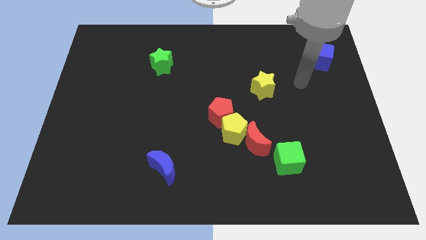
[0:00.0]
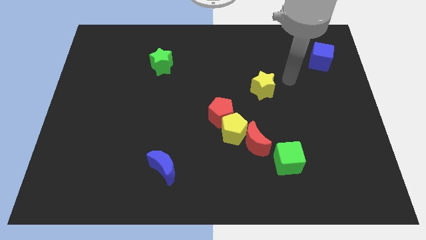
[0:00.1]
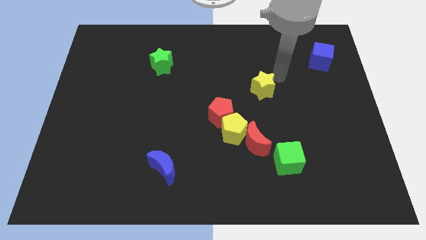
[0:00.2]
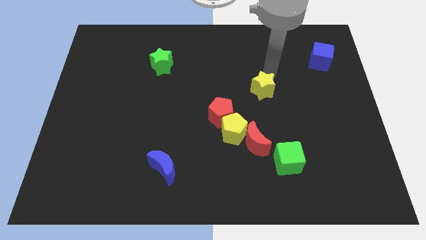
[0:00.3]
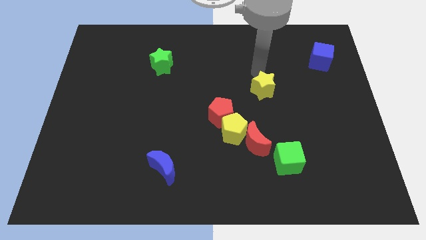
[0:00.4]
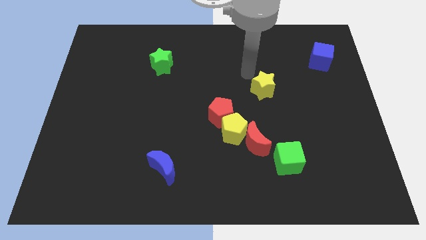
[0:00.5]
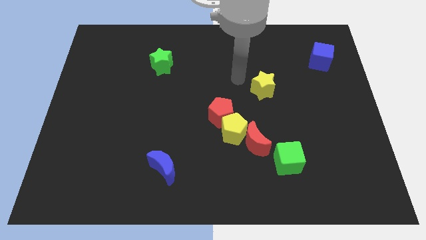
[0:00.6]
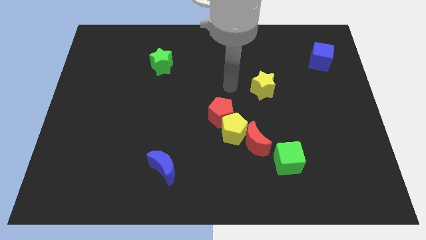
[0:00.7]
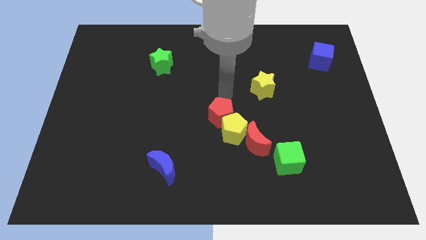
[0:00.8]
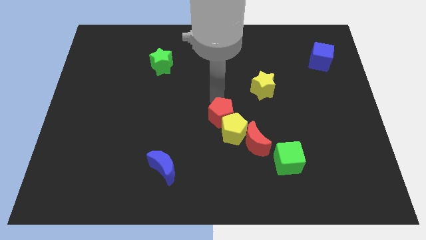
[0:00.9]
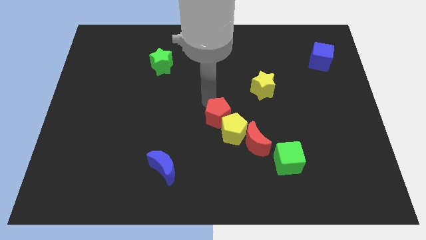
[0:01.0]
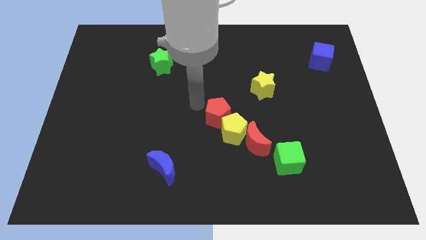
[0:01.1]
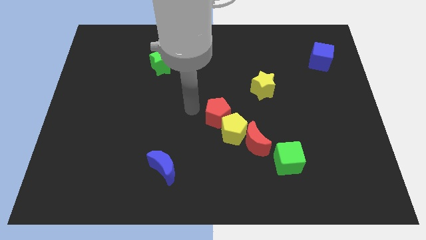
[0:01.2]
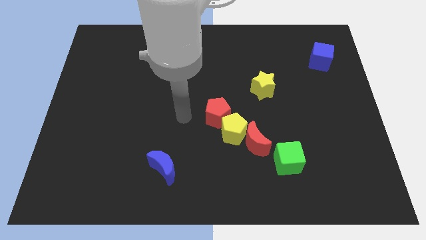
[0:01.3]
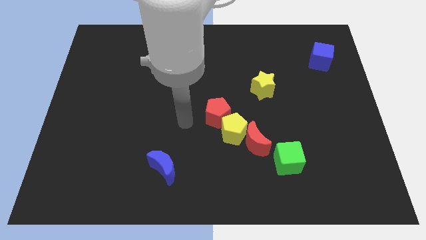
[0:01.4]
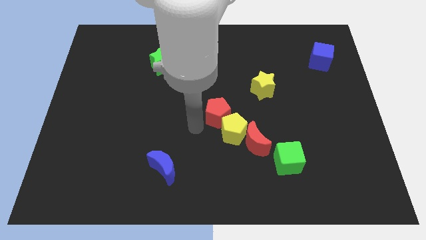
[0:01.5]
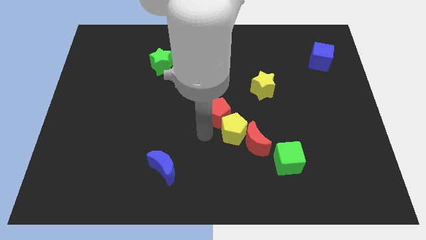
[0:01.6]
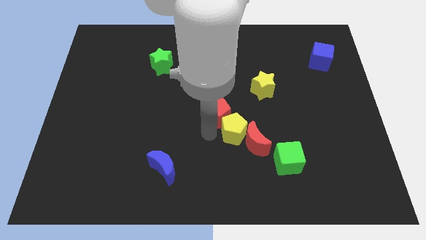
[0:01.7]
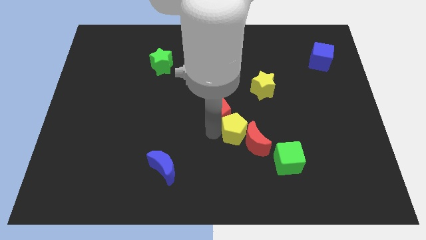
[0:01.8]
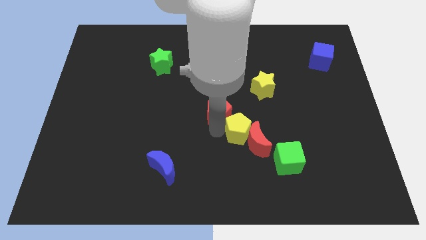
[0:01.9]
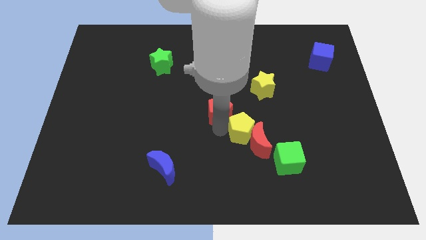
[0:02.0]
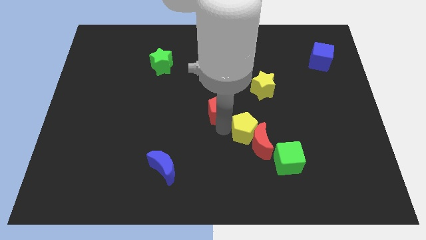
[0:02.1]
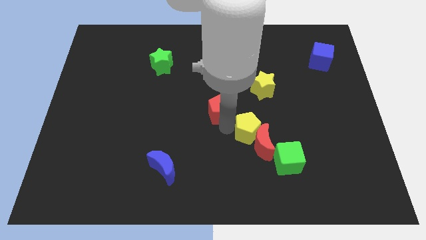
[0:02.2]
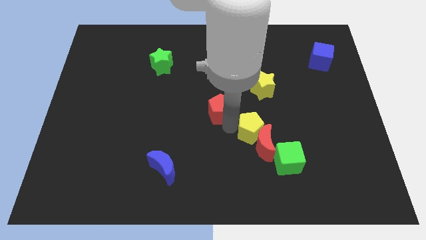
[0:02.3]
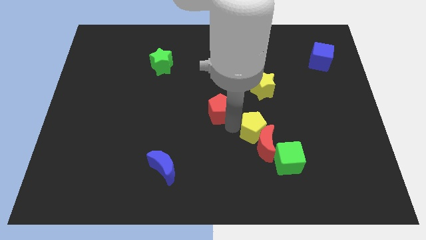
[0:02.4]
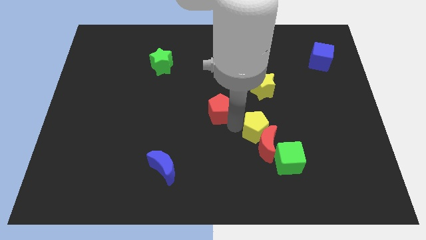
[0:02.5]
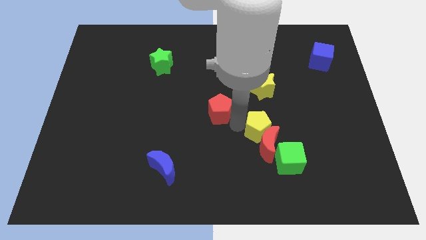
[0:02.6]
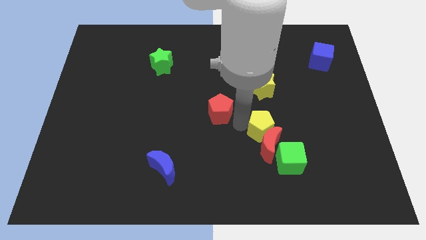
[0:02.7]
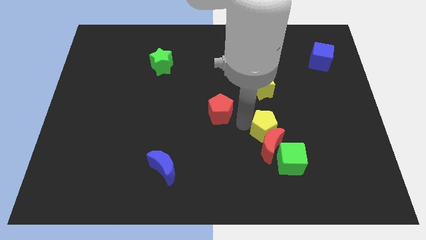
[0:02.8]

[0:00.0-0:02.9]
push the yellow pentagon to the right slightly

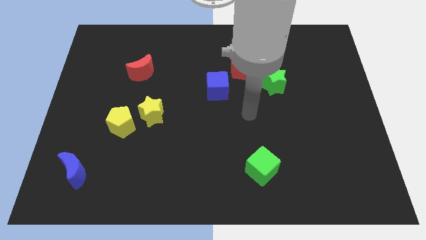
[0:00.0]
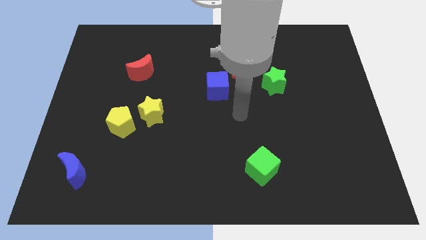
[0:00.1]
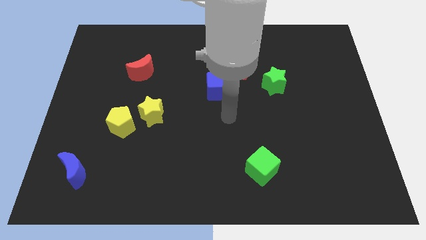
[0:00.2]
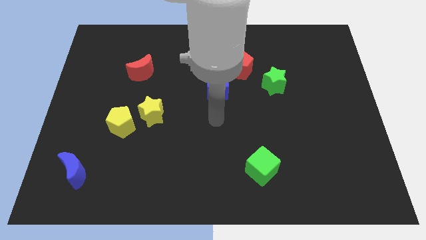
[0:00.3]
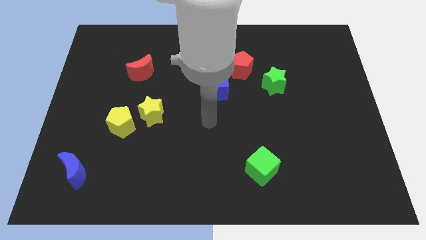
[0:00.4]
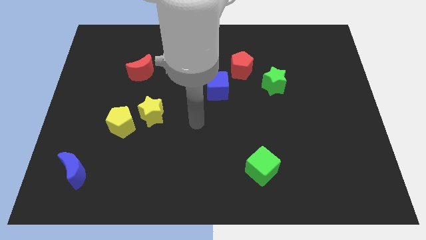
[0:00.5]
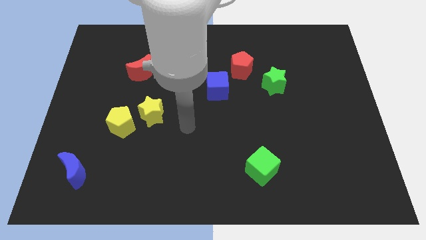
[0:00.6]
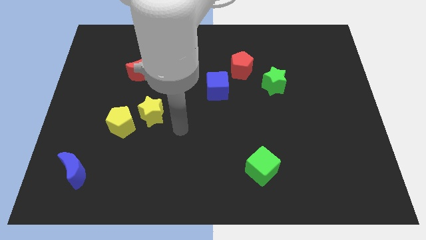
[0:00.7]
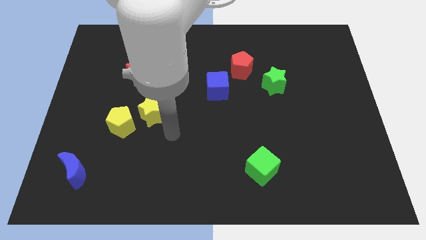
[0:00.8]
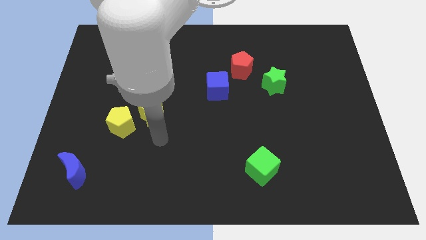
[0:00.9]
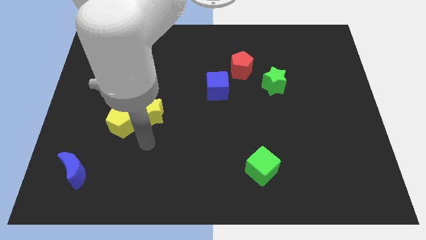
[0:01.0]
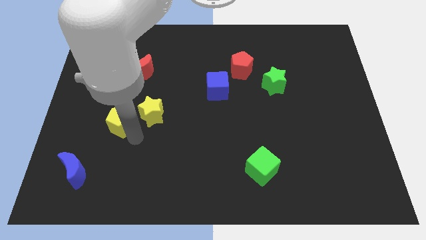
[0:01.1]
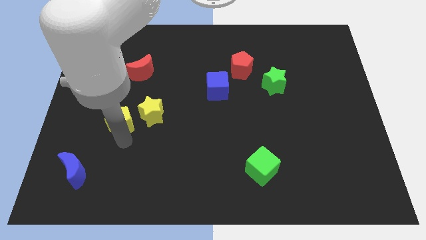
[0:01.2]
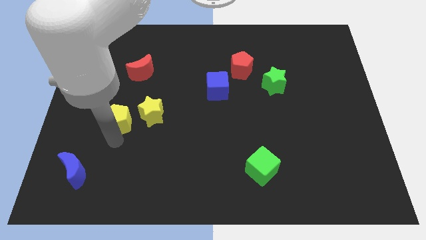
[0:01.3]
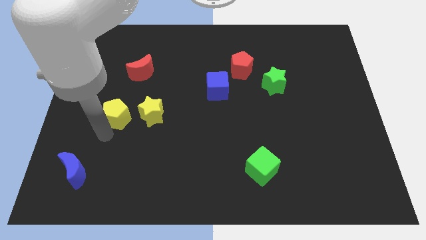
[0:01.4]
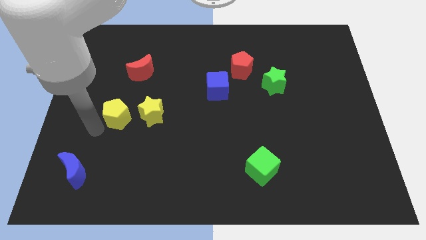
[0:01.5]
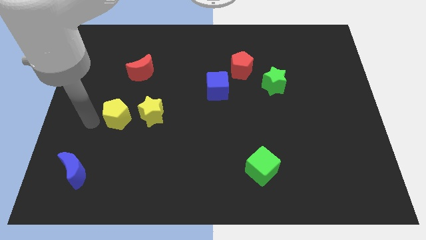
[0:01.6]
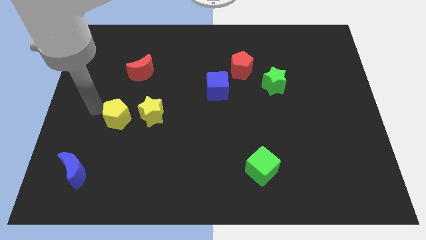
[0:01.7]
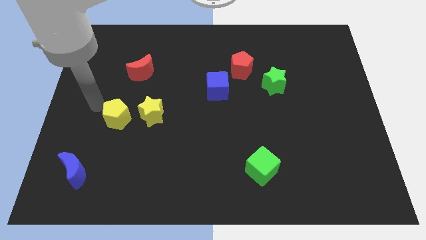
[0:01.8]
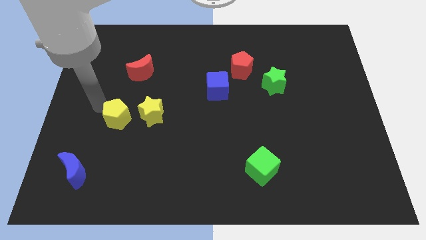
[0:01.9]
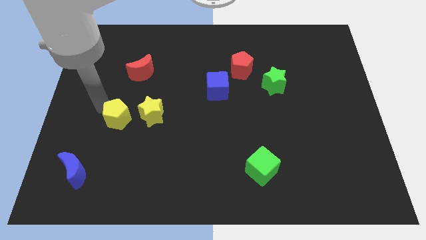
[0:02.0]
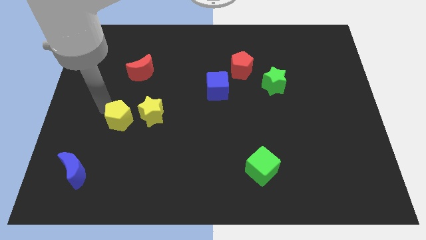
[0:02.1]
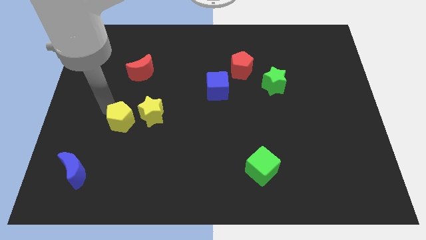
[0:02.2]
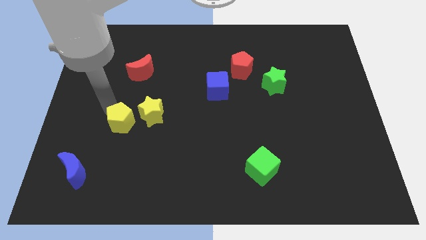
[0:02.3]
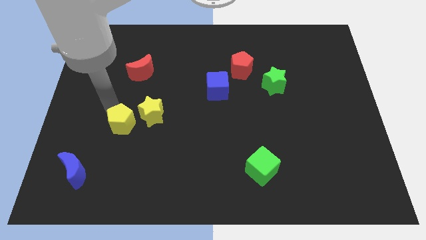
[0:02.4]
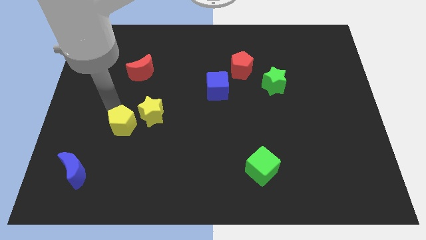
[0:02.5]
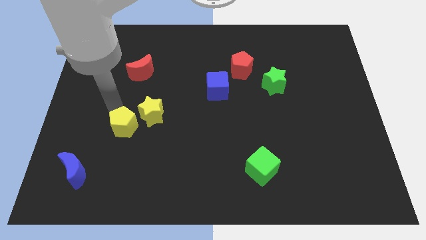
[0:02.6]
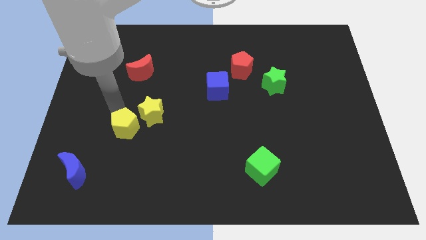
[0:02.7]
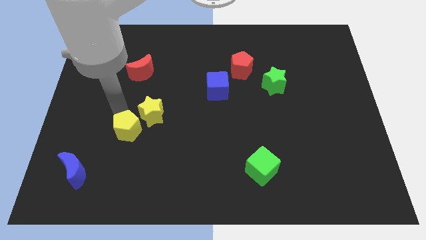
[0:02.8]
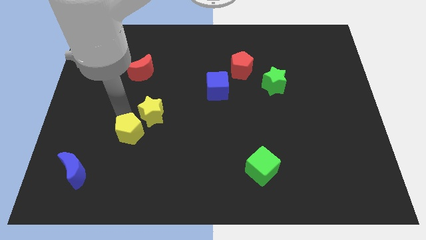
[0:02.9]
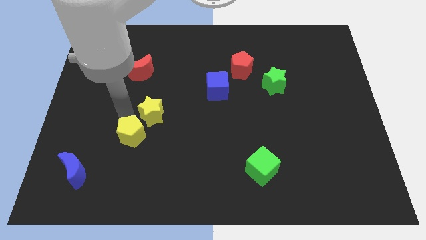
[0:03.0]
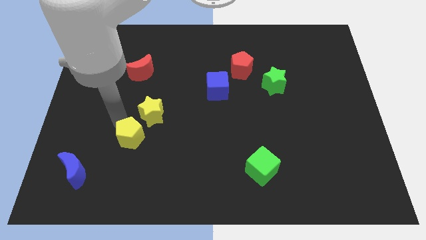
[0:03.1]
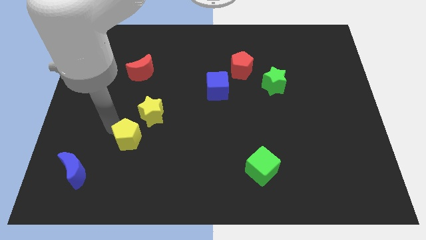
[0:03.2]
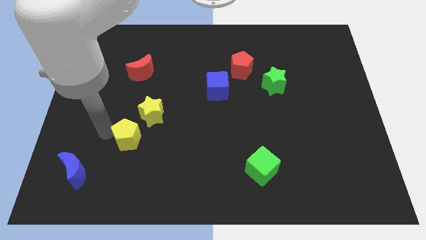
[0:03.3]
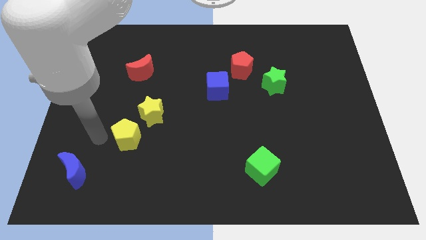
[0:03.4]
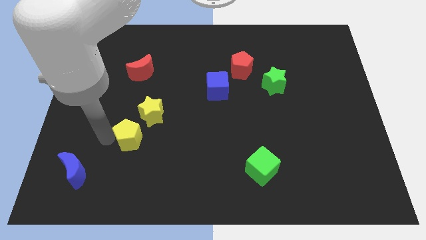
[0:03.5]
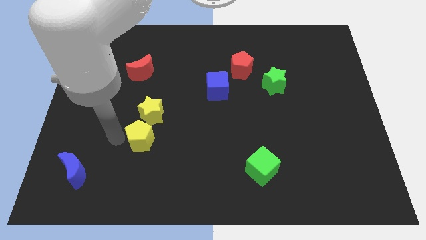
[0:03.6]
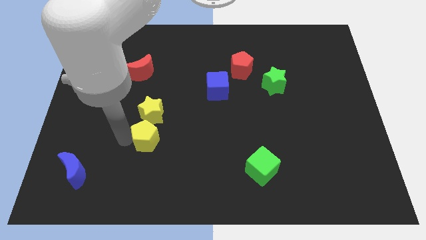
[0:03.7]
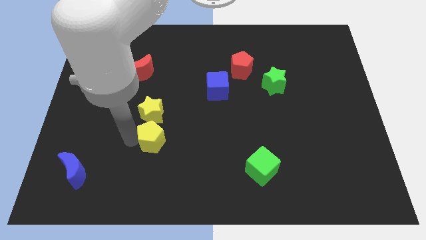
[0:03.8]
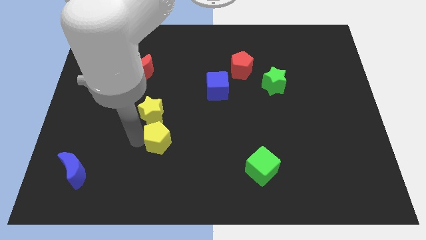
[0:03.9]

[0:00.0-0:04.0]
slightly slide the yellow pentagon right

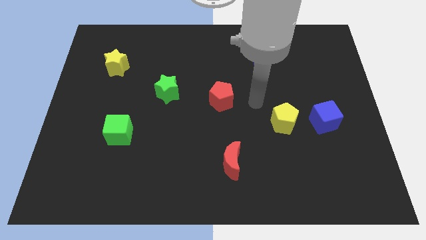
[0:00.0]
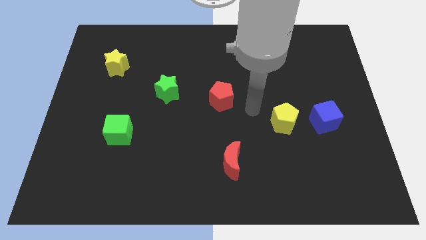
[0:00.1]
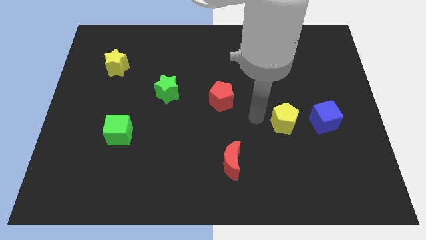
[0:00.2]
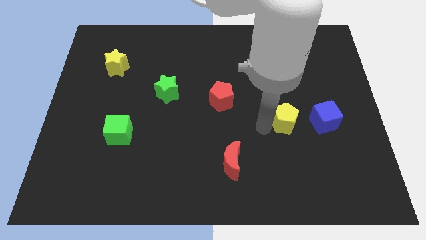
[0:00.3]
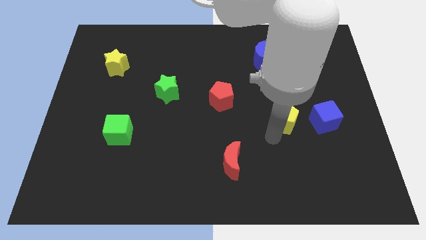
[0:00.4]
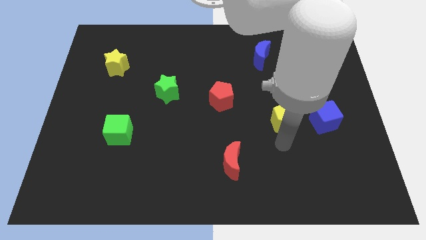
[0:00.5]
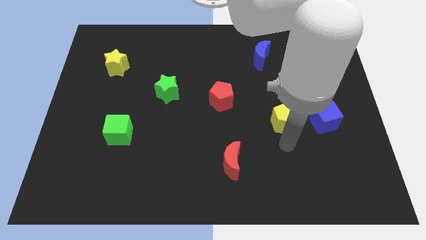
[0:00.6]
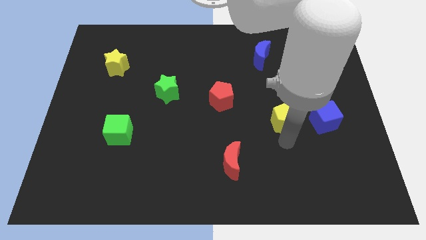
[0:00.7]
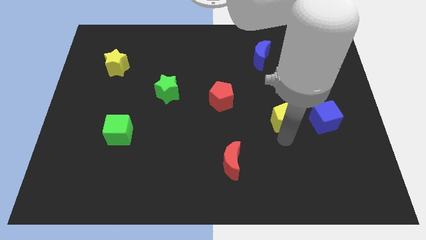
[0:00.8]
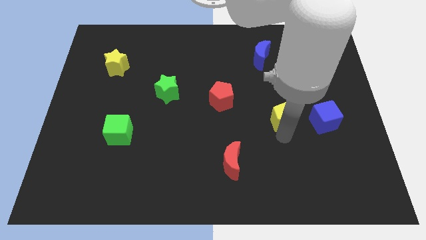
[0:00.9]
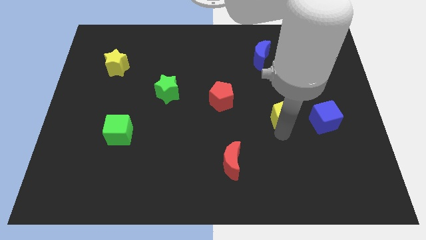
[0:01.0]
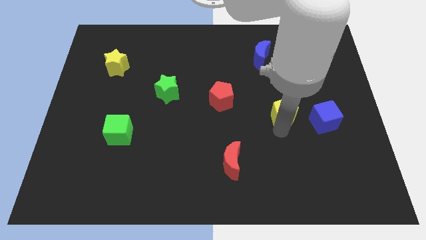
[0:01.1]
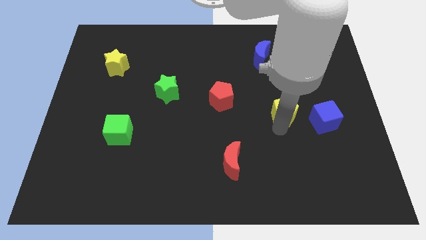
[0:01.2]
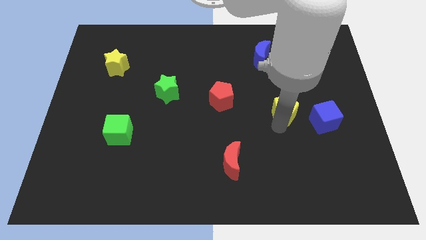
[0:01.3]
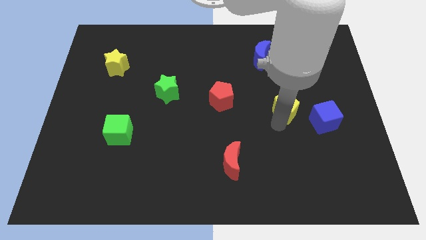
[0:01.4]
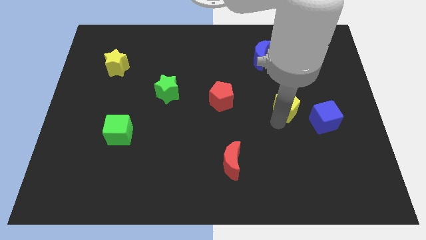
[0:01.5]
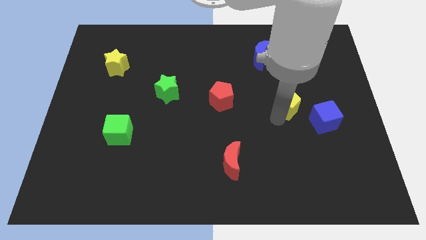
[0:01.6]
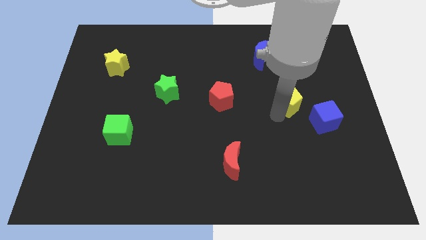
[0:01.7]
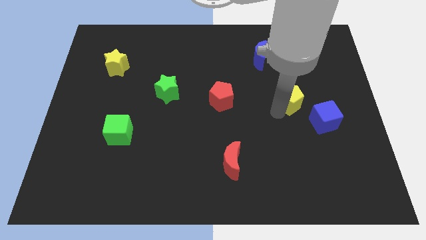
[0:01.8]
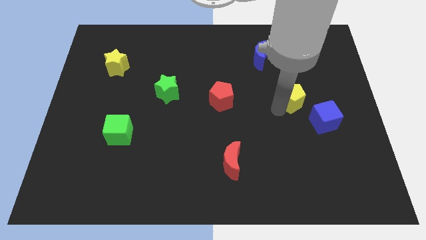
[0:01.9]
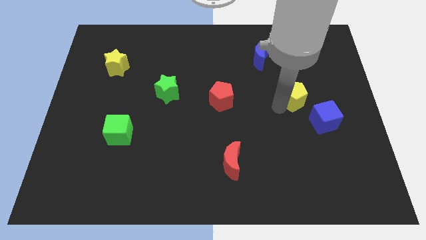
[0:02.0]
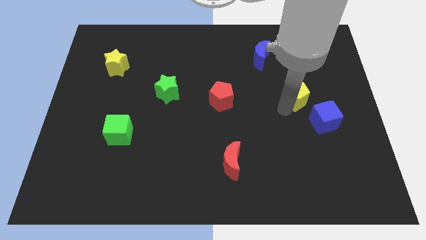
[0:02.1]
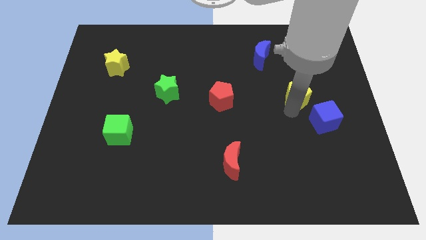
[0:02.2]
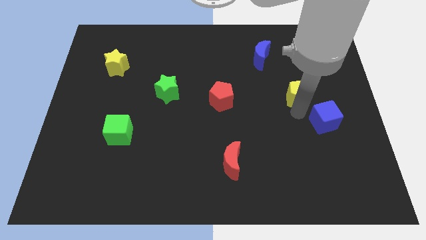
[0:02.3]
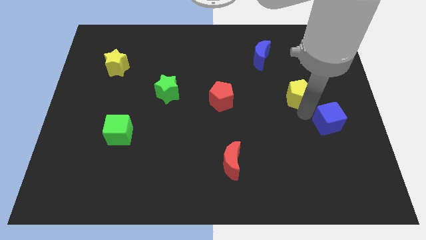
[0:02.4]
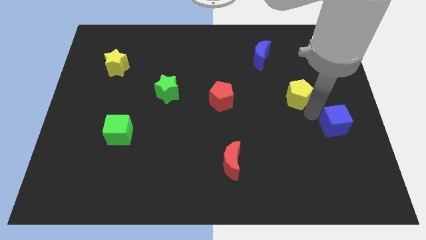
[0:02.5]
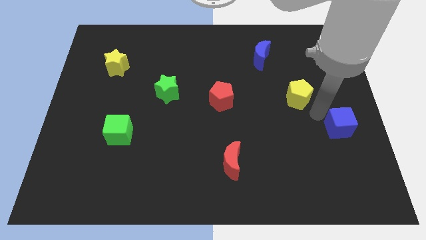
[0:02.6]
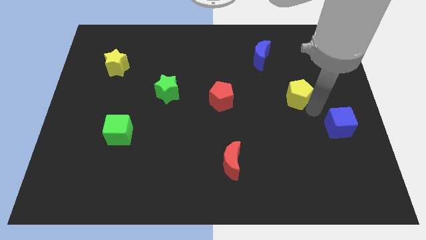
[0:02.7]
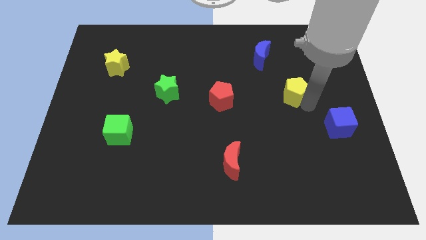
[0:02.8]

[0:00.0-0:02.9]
slide the yellow pentagon upwards a bit
